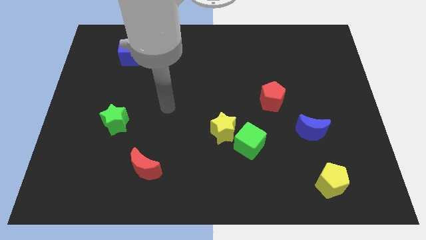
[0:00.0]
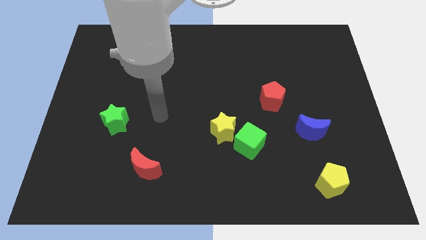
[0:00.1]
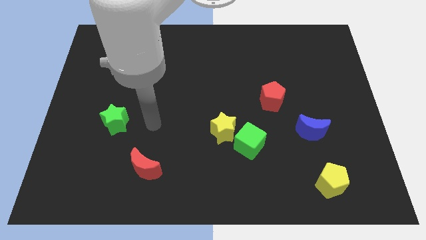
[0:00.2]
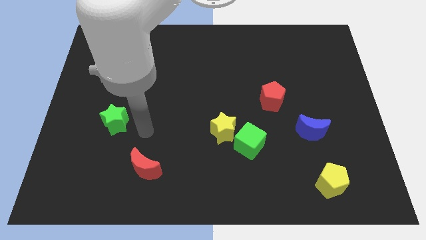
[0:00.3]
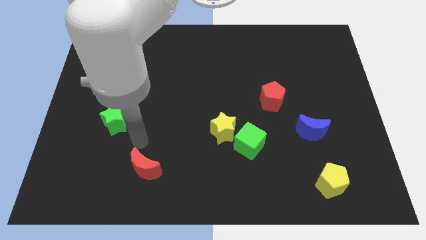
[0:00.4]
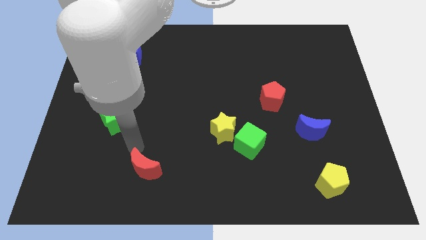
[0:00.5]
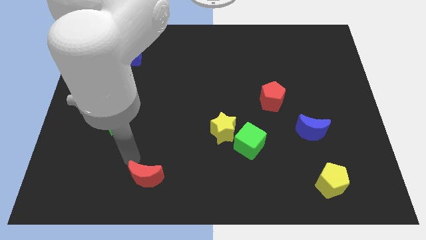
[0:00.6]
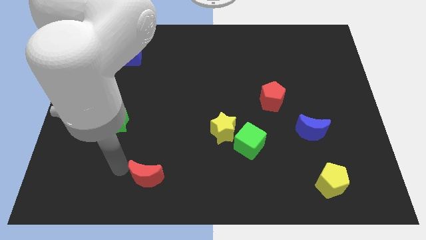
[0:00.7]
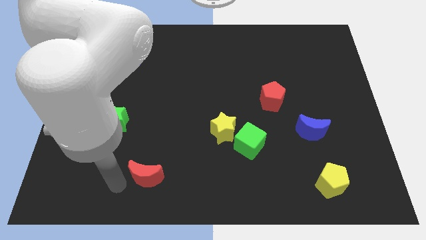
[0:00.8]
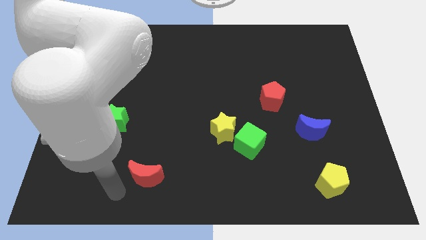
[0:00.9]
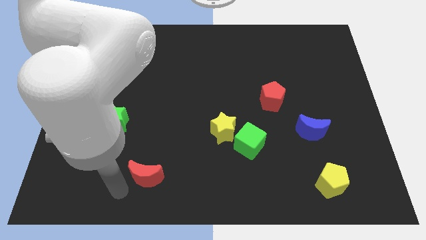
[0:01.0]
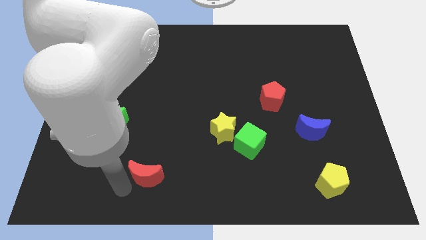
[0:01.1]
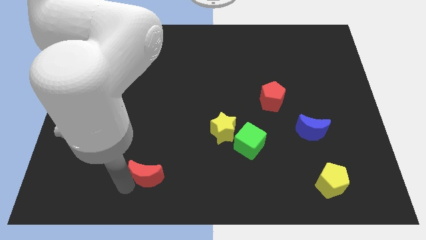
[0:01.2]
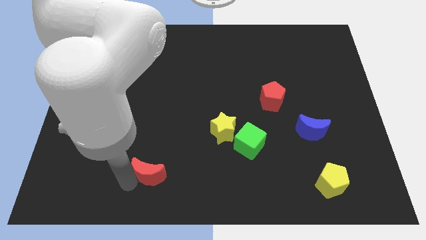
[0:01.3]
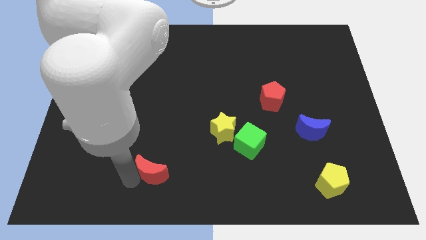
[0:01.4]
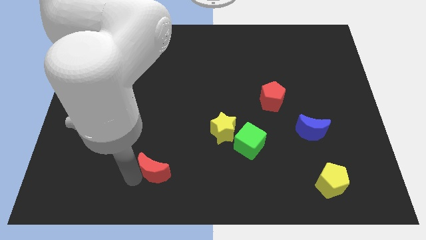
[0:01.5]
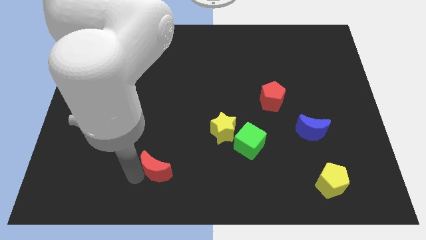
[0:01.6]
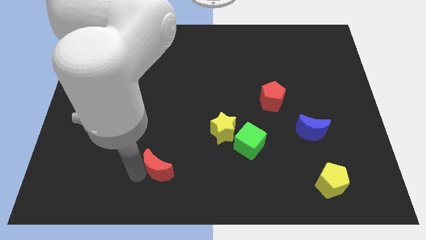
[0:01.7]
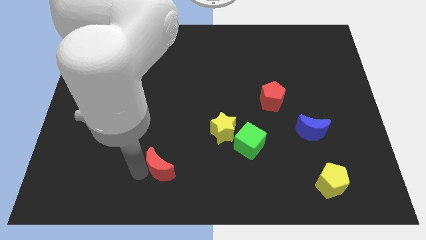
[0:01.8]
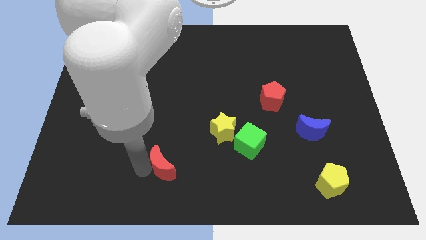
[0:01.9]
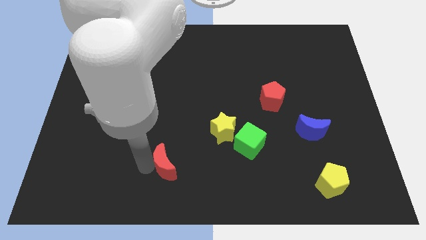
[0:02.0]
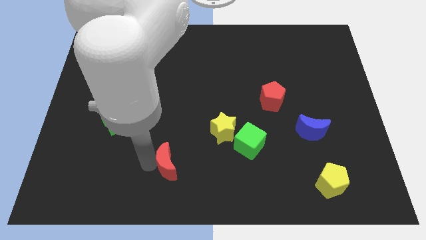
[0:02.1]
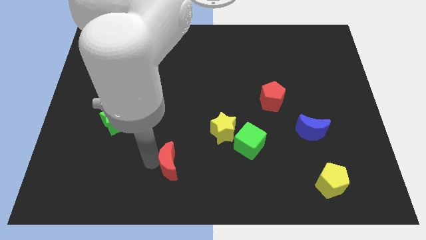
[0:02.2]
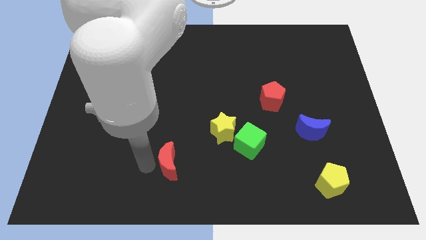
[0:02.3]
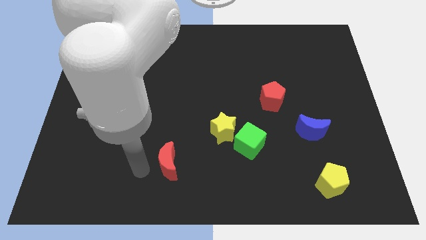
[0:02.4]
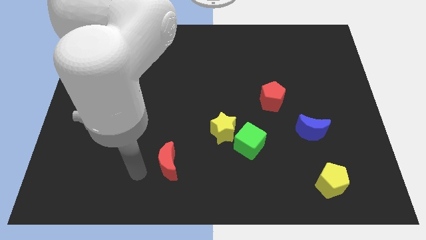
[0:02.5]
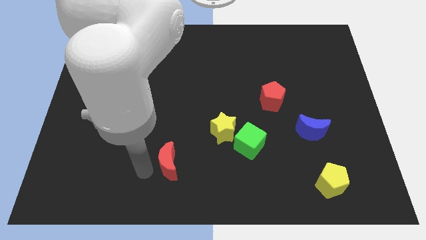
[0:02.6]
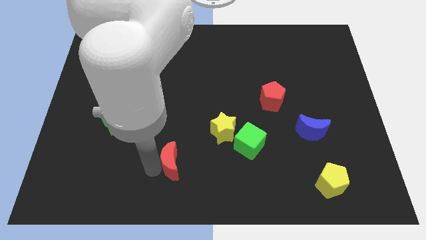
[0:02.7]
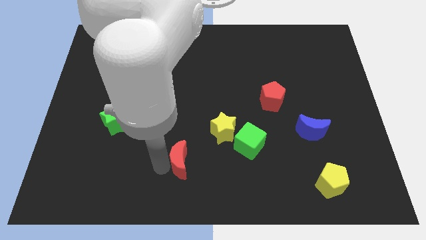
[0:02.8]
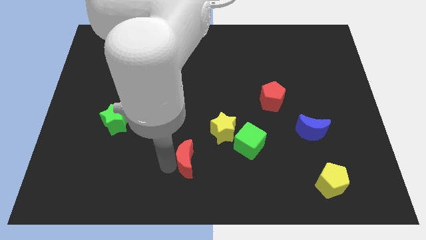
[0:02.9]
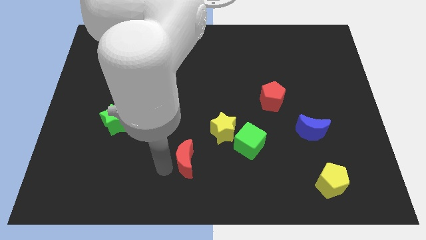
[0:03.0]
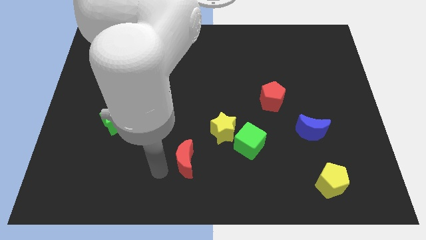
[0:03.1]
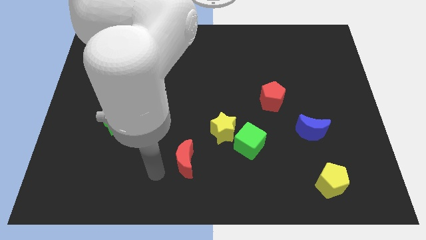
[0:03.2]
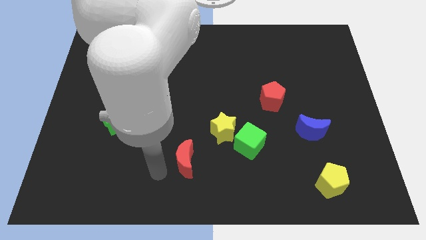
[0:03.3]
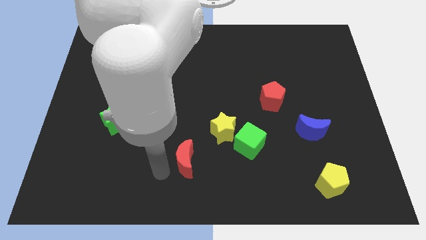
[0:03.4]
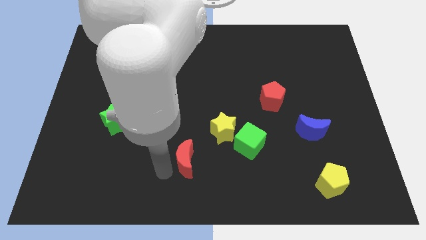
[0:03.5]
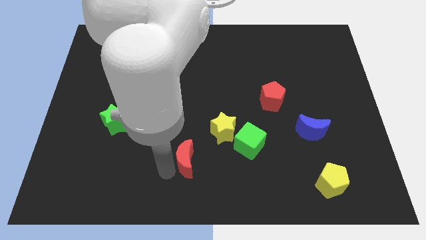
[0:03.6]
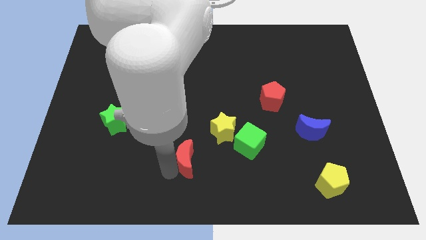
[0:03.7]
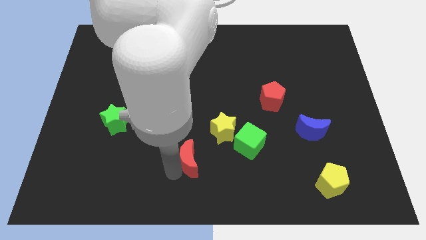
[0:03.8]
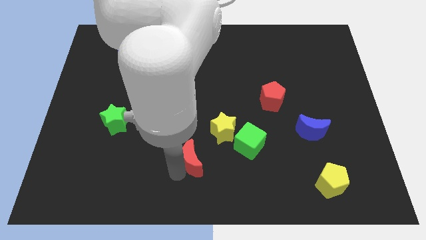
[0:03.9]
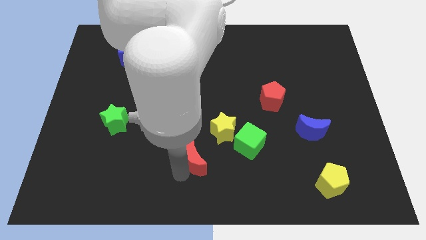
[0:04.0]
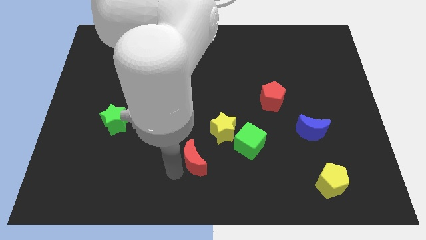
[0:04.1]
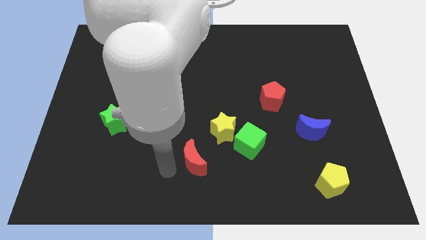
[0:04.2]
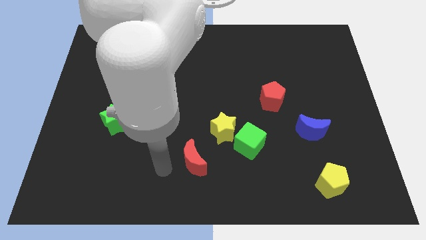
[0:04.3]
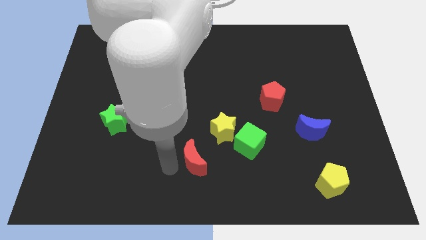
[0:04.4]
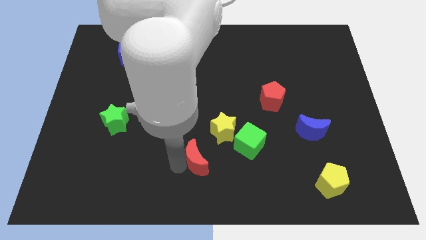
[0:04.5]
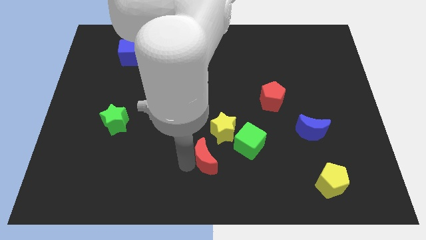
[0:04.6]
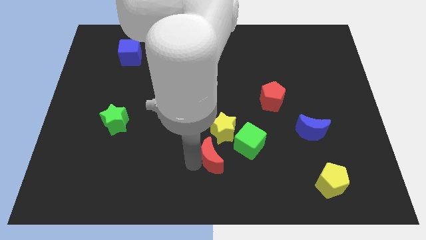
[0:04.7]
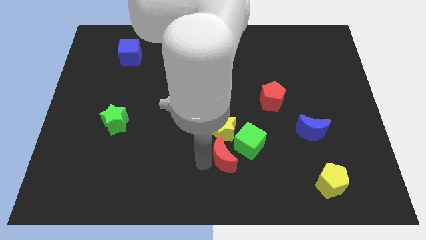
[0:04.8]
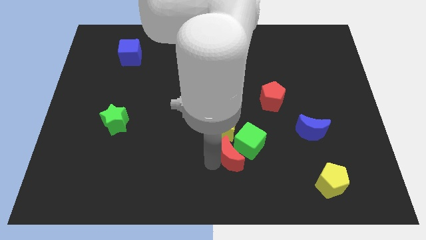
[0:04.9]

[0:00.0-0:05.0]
move the red moon towards the green cube

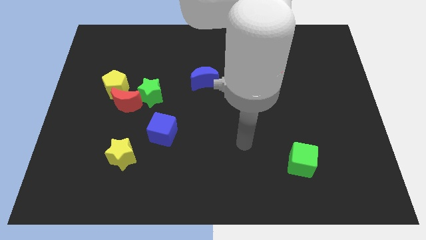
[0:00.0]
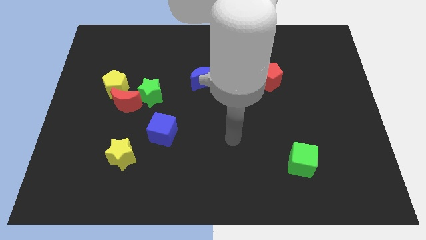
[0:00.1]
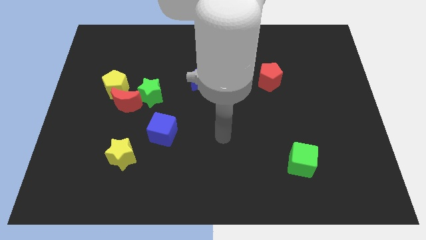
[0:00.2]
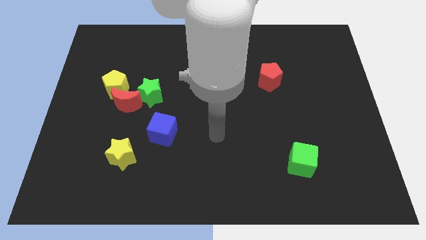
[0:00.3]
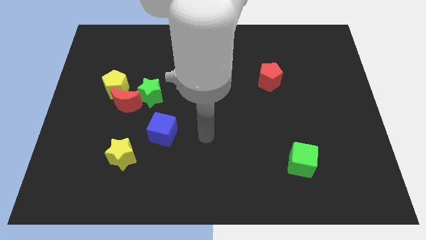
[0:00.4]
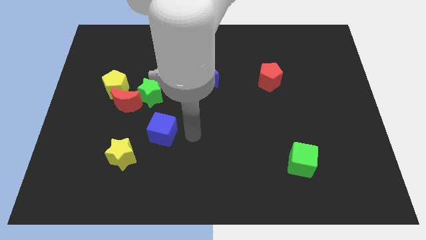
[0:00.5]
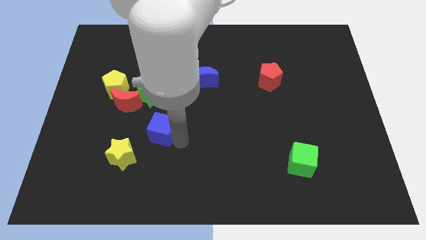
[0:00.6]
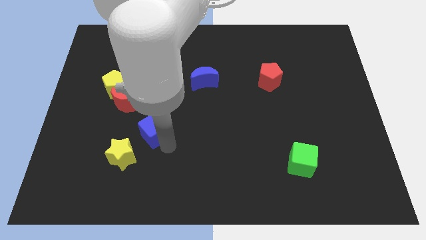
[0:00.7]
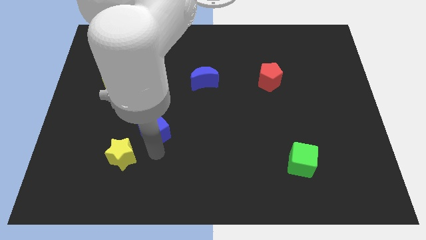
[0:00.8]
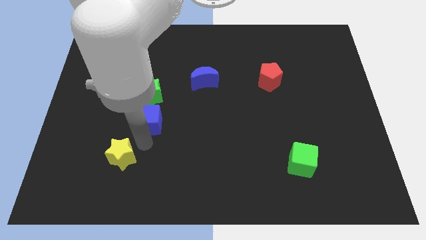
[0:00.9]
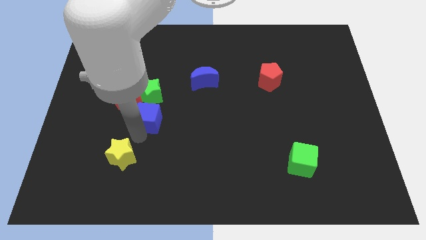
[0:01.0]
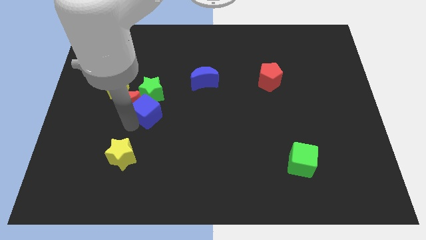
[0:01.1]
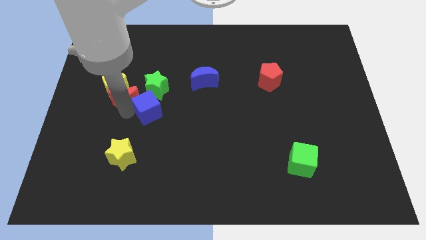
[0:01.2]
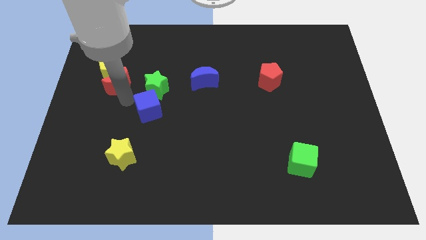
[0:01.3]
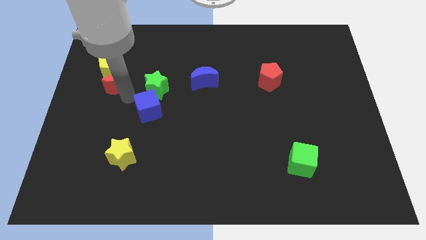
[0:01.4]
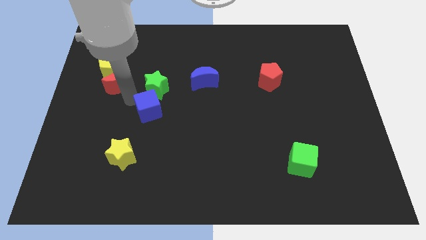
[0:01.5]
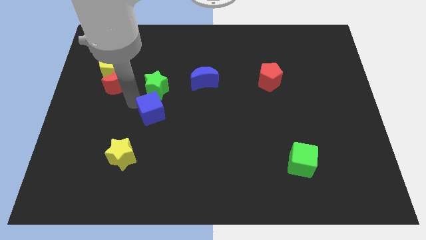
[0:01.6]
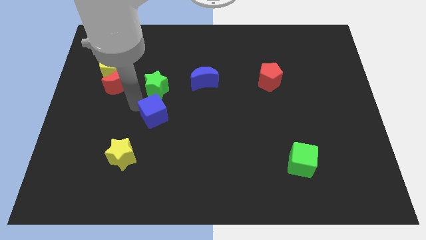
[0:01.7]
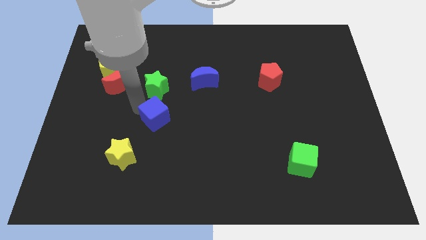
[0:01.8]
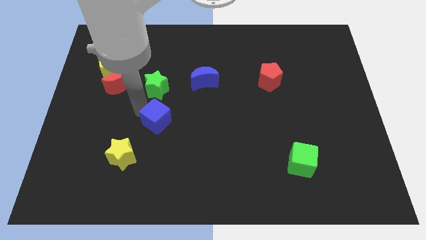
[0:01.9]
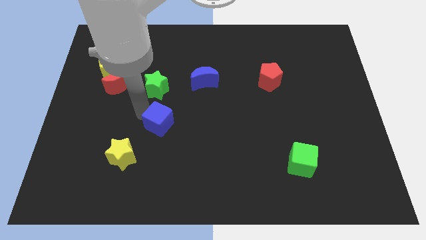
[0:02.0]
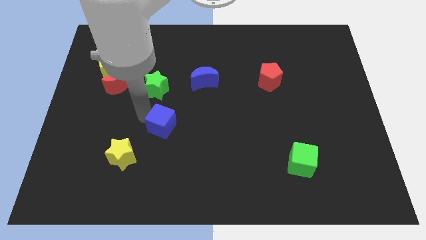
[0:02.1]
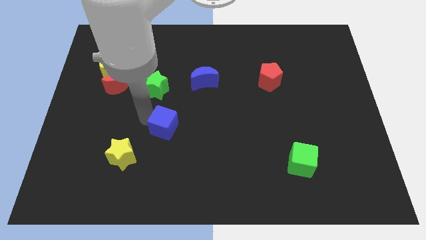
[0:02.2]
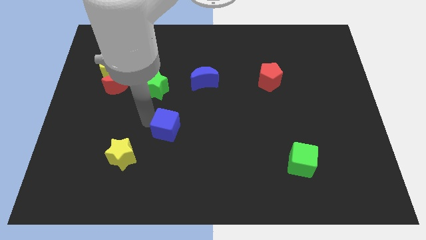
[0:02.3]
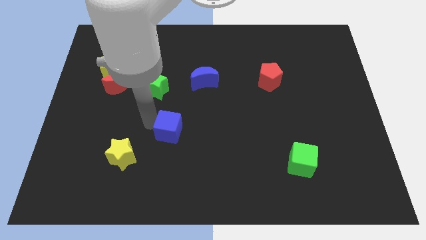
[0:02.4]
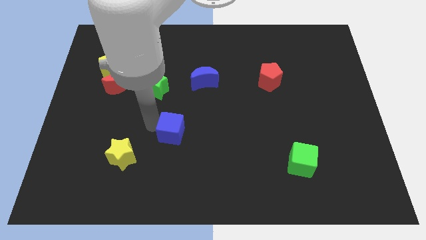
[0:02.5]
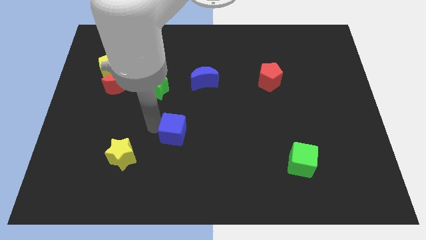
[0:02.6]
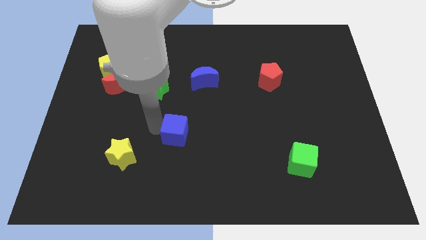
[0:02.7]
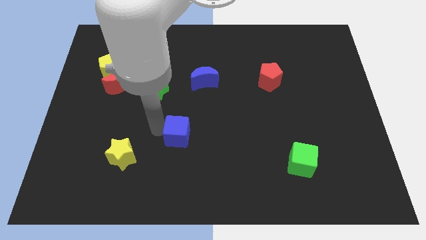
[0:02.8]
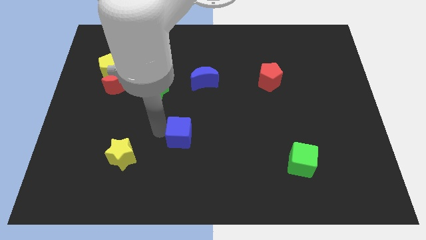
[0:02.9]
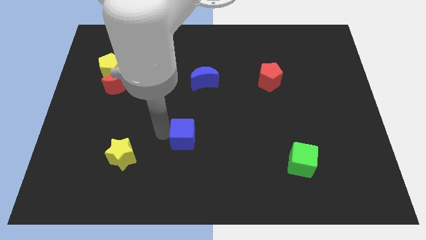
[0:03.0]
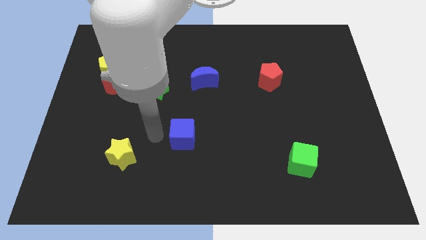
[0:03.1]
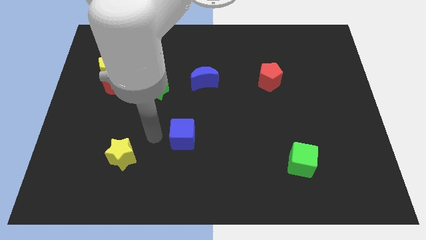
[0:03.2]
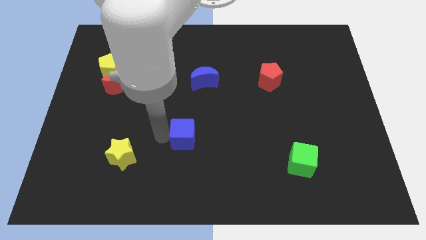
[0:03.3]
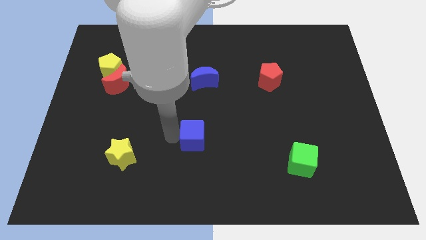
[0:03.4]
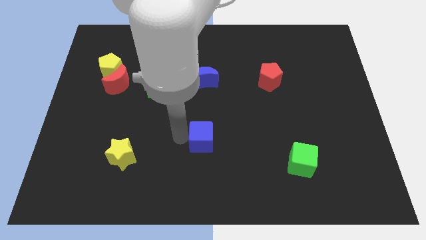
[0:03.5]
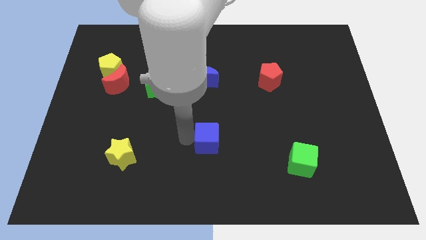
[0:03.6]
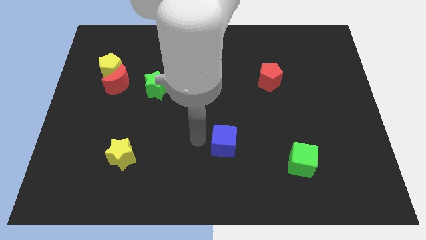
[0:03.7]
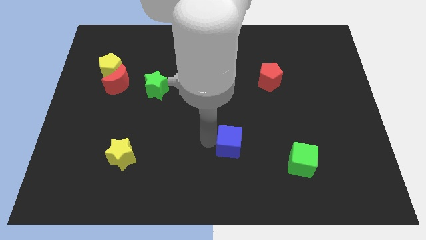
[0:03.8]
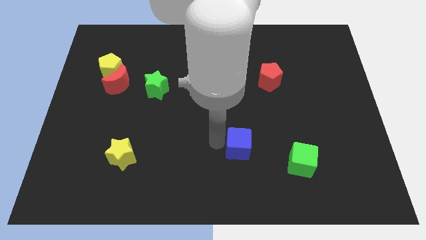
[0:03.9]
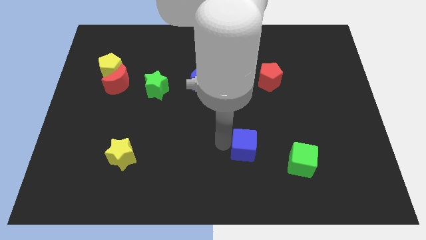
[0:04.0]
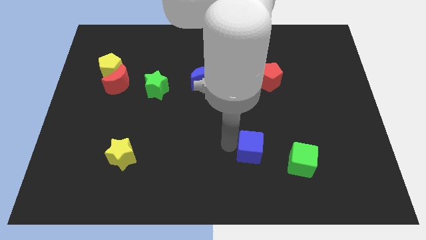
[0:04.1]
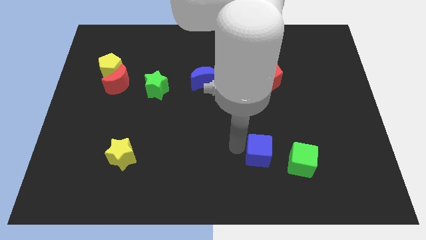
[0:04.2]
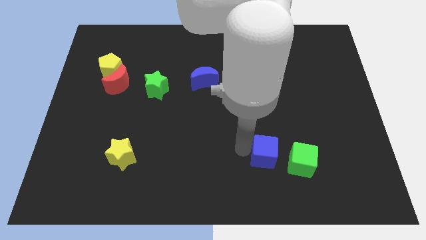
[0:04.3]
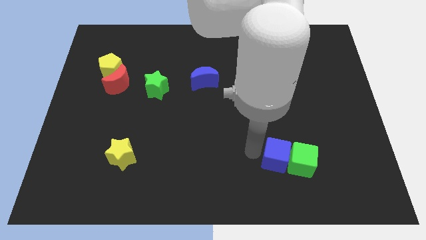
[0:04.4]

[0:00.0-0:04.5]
slide the blue cube next to the green cube
